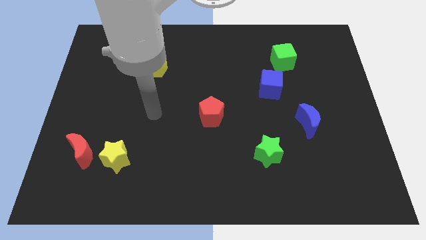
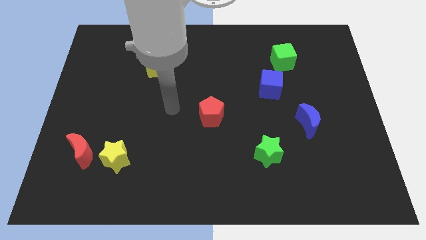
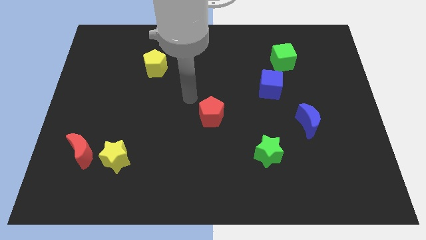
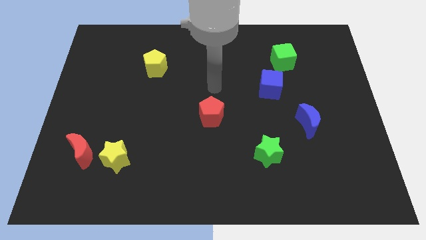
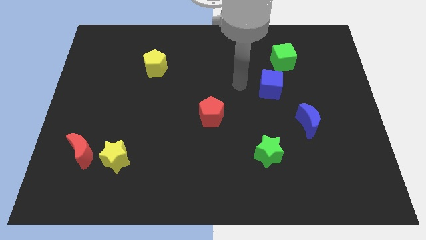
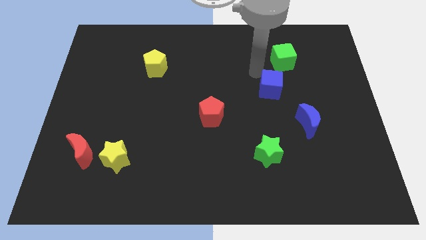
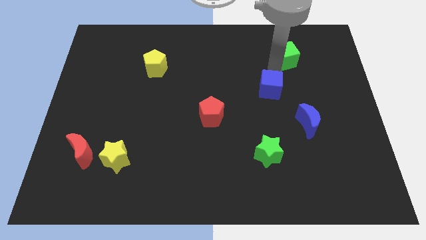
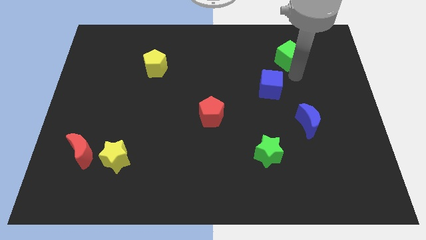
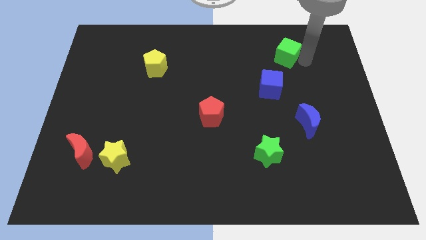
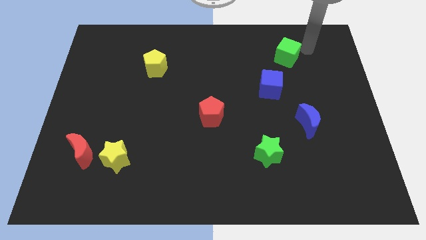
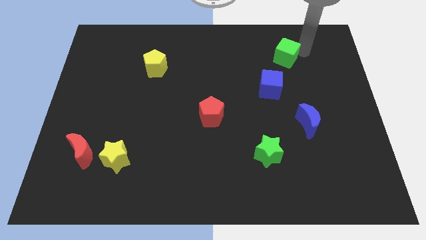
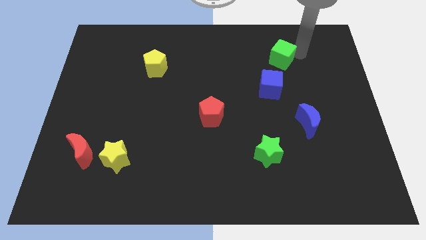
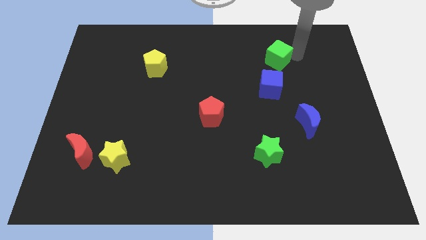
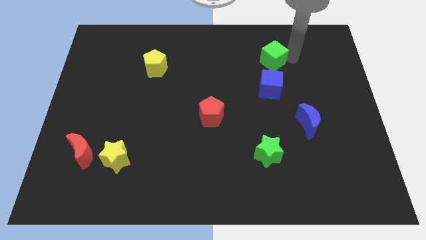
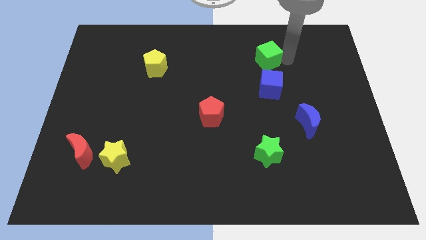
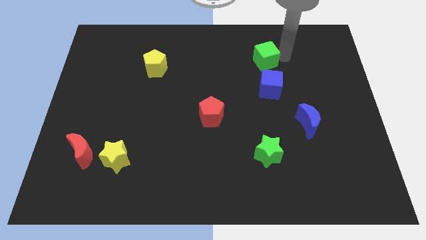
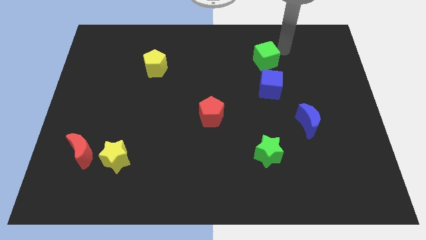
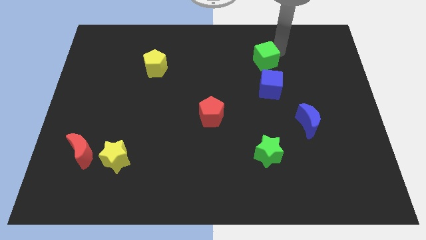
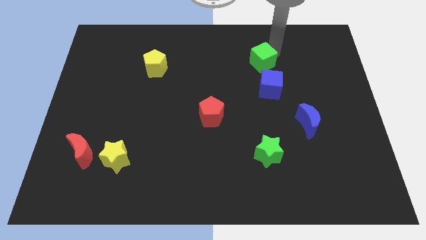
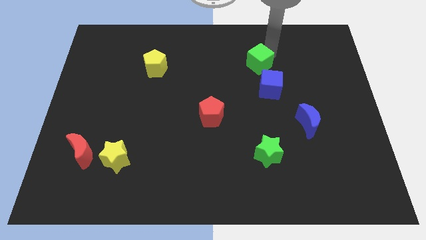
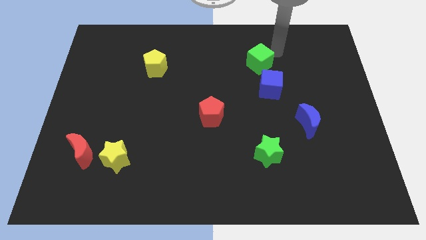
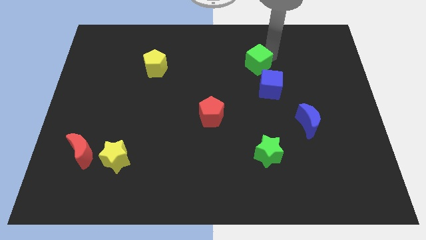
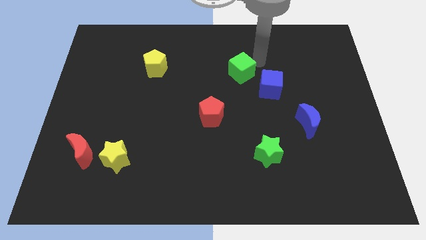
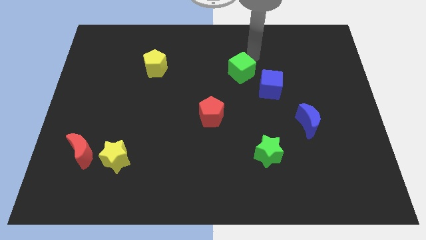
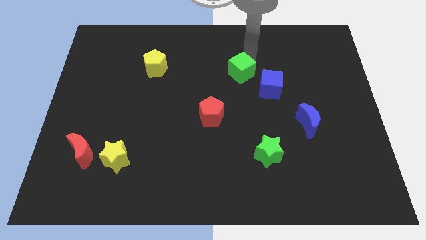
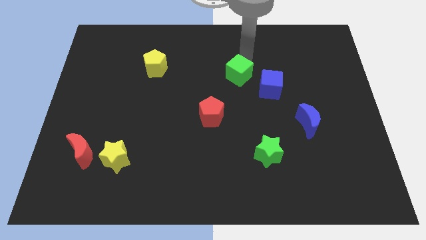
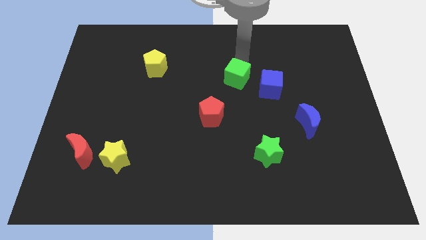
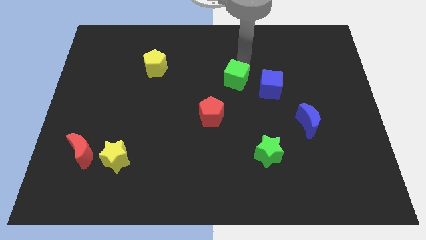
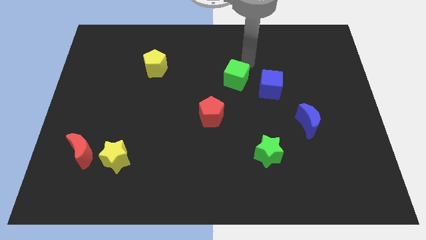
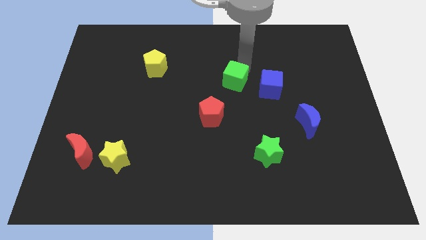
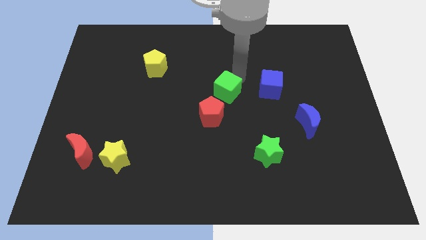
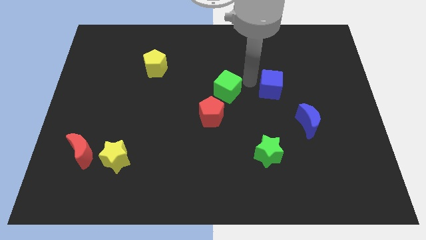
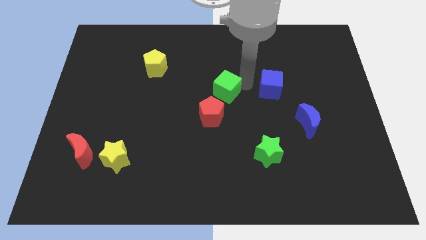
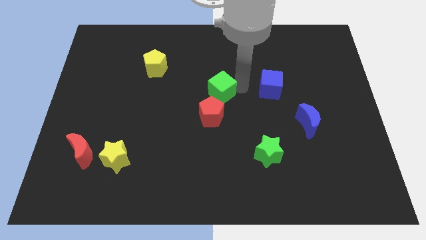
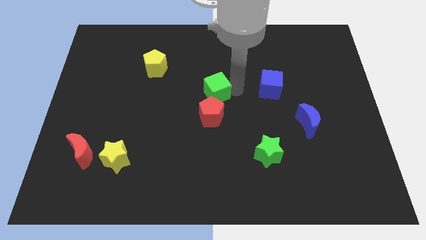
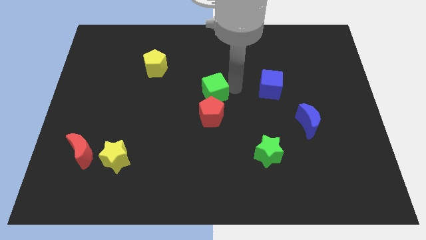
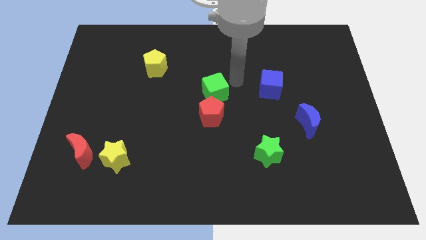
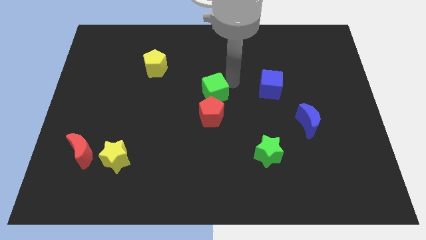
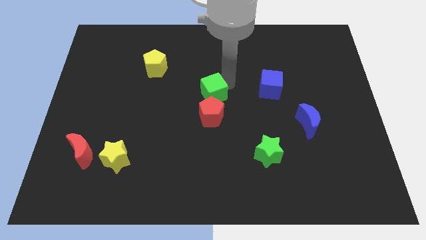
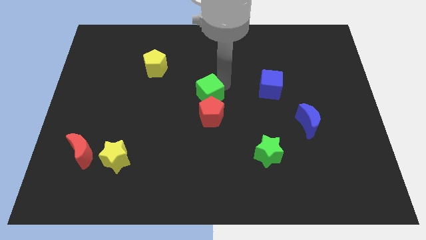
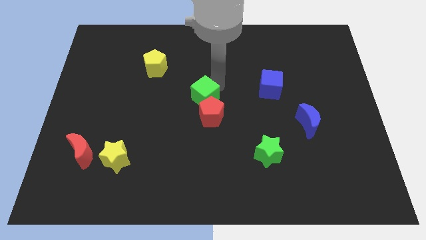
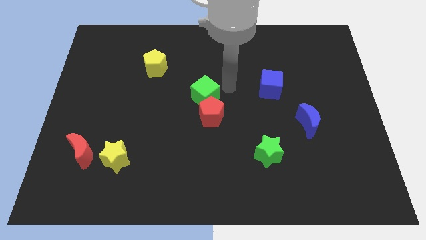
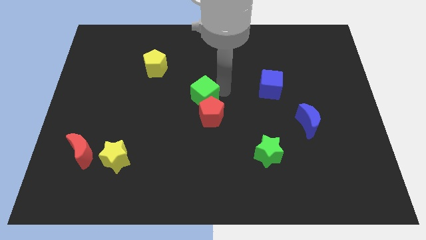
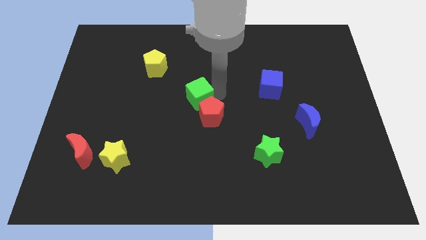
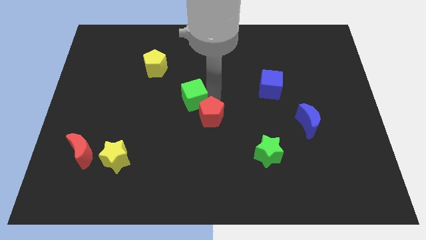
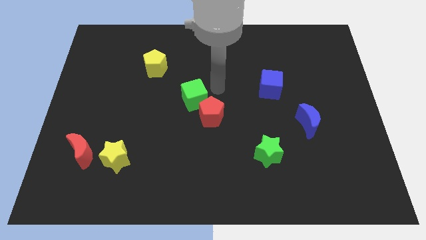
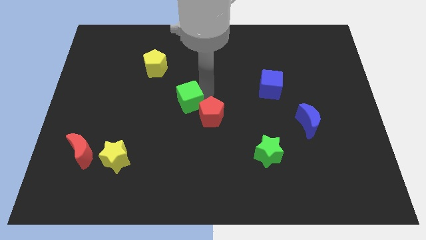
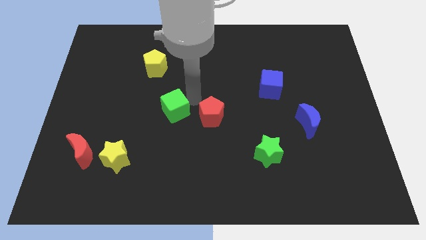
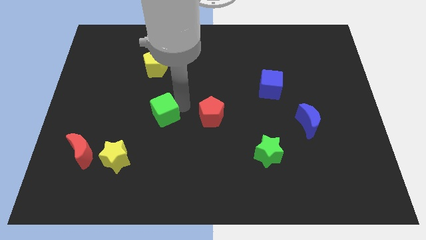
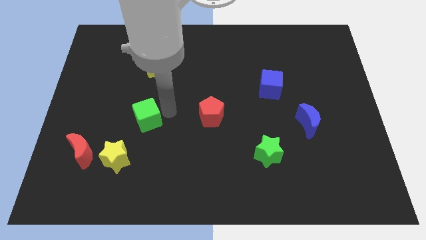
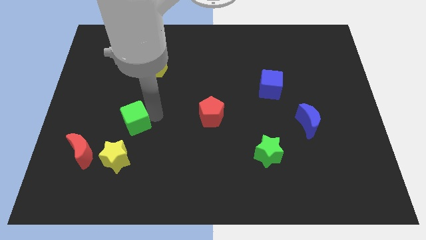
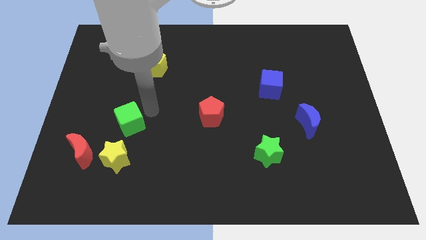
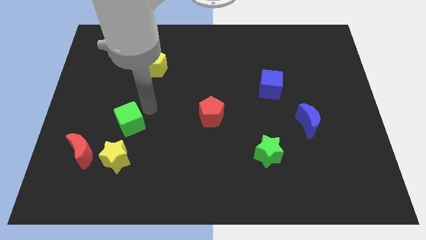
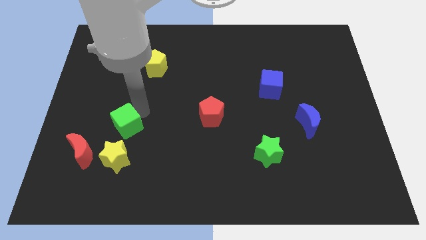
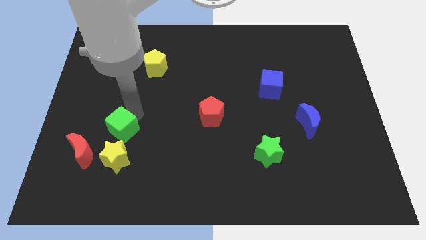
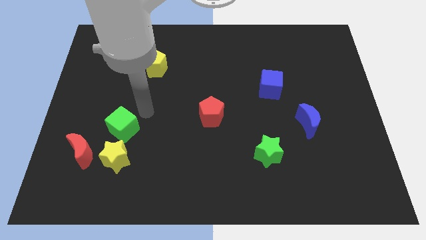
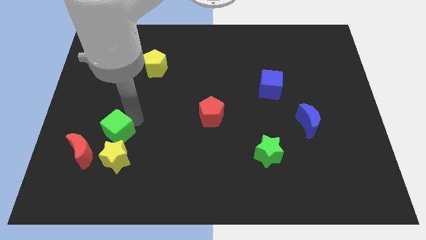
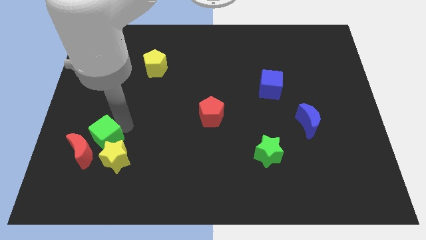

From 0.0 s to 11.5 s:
slide the green cube towards the red moon

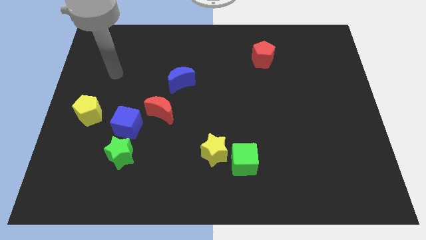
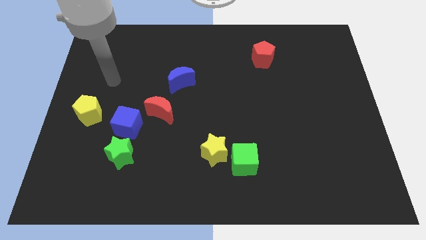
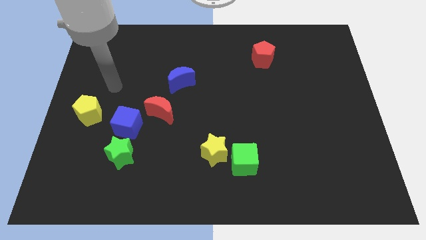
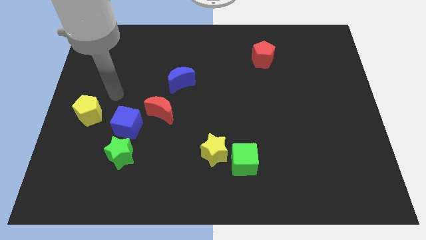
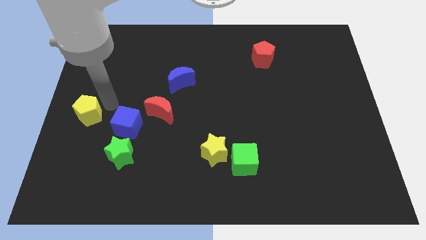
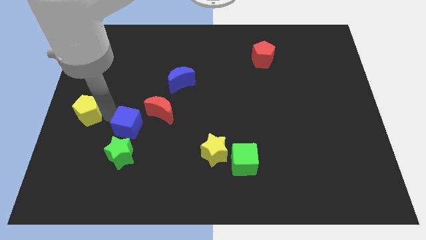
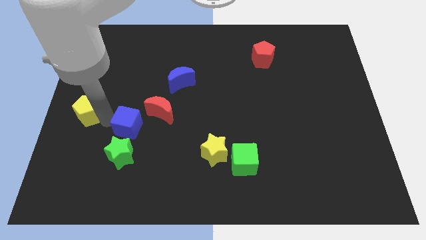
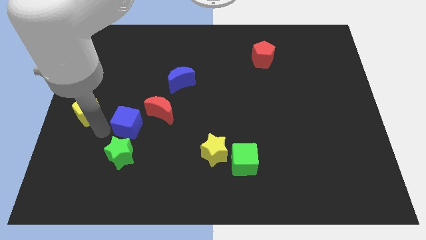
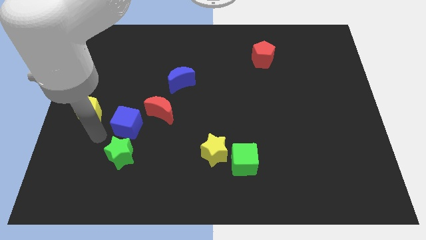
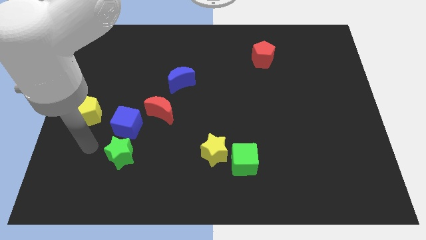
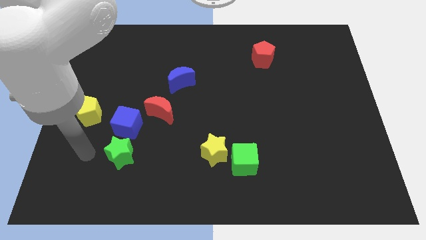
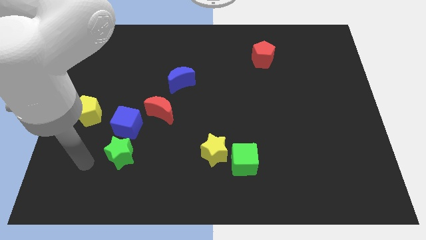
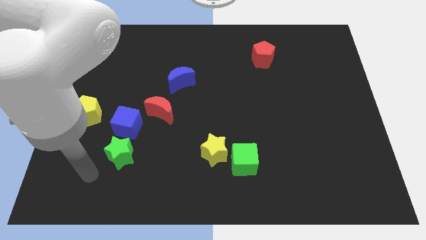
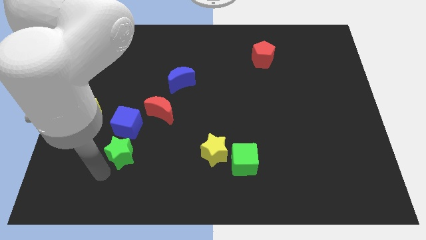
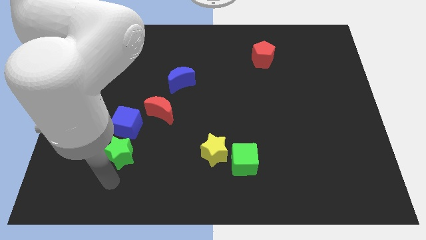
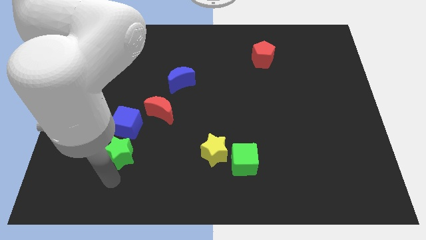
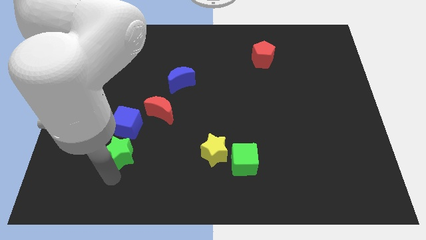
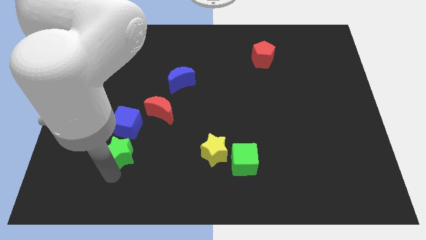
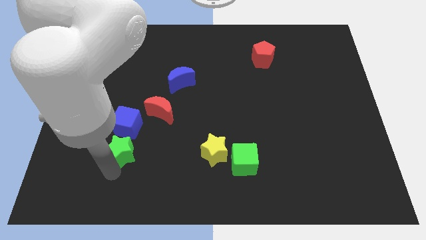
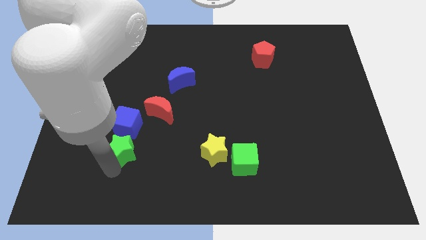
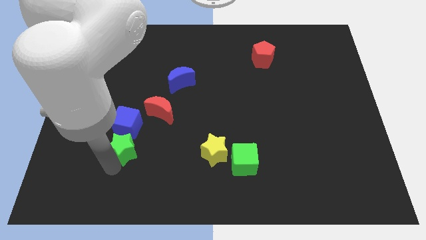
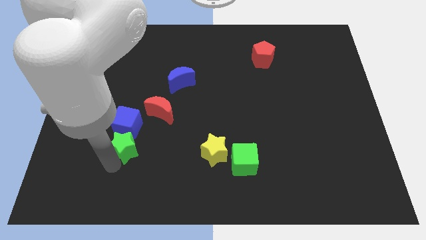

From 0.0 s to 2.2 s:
push the green star next to the blue cube
